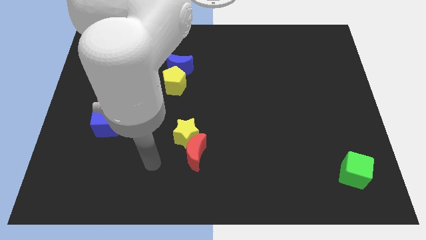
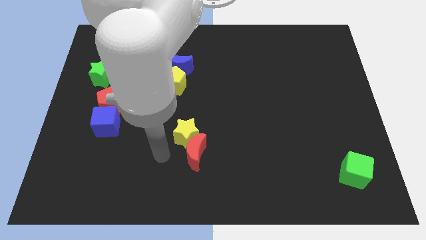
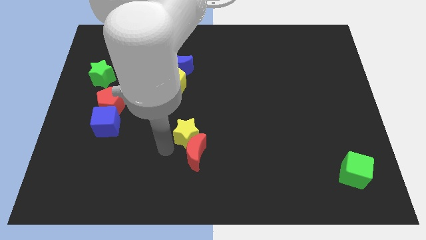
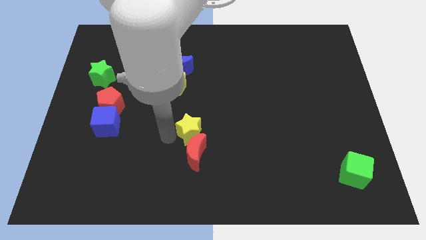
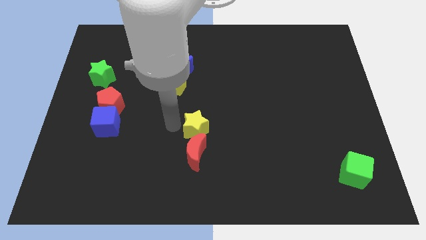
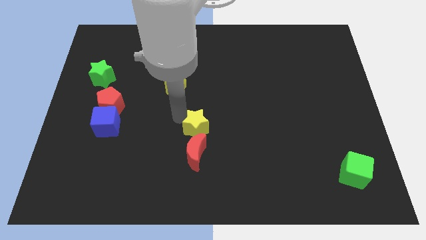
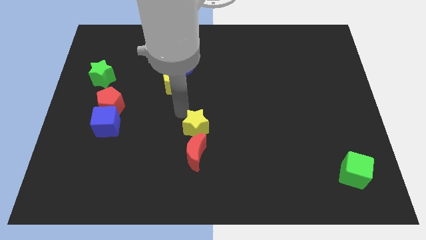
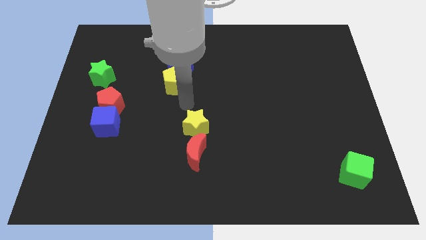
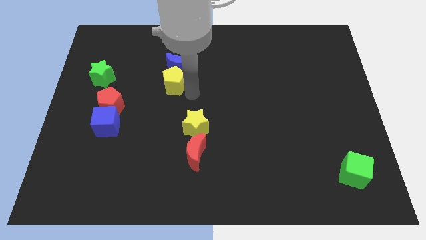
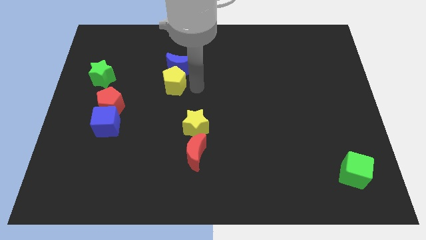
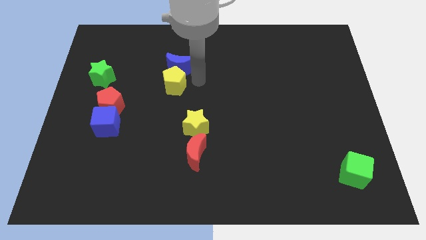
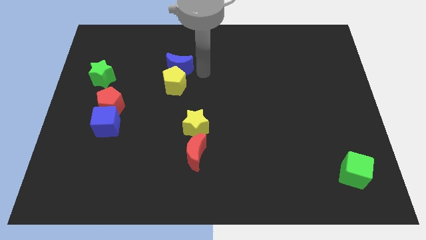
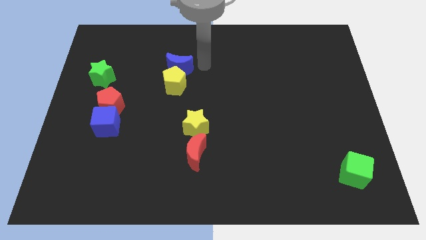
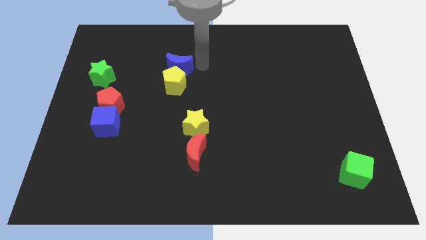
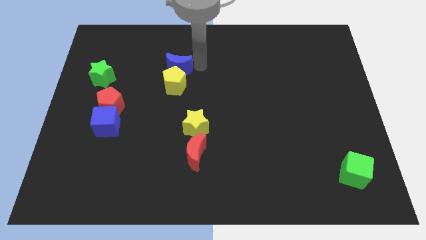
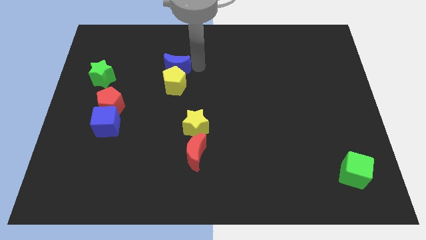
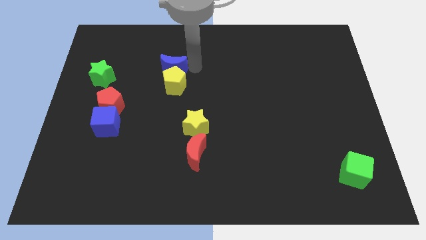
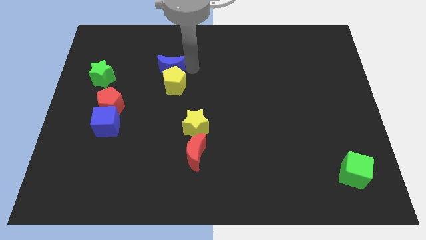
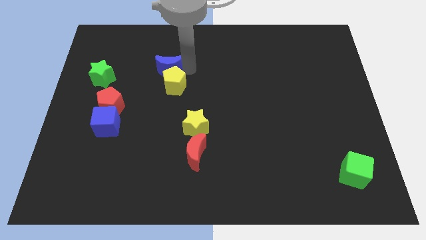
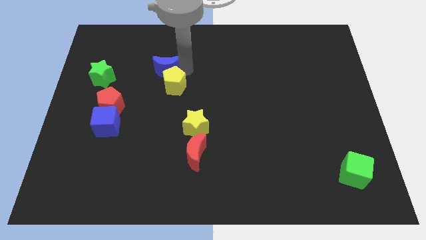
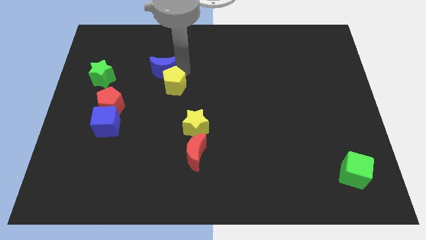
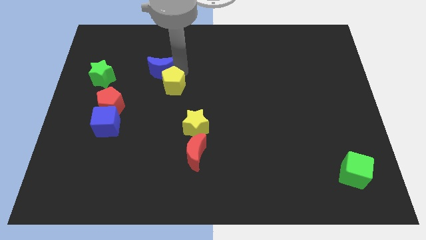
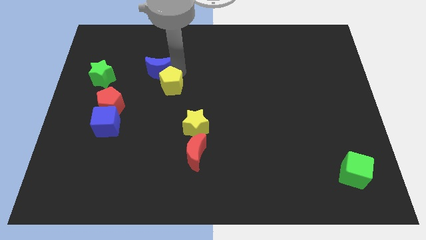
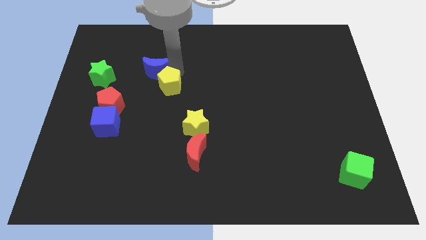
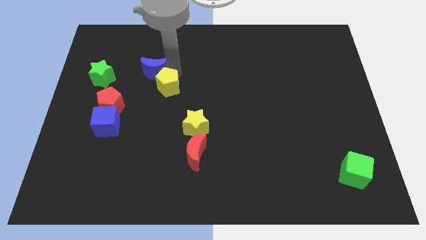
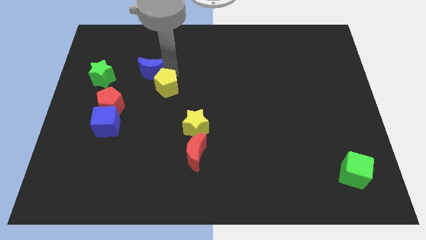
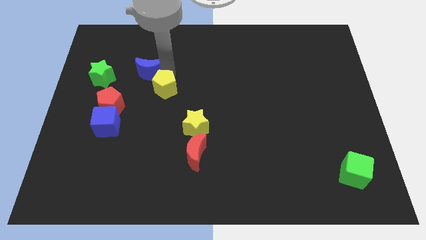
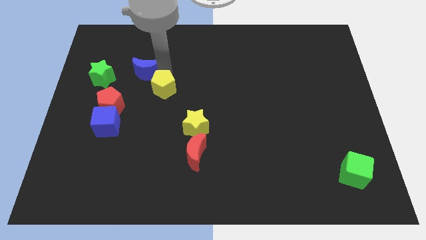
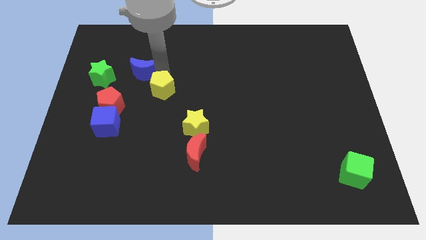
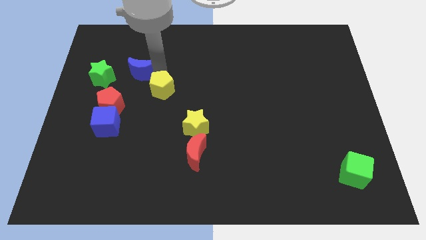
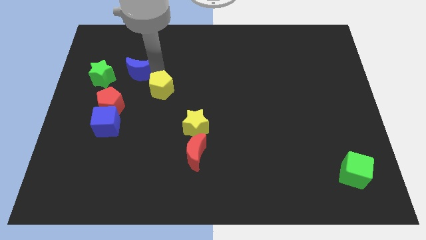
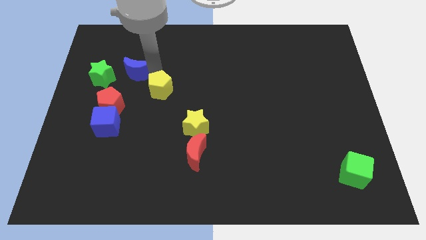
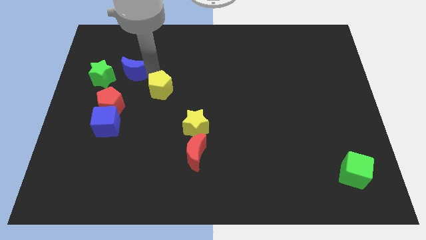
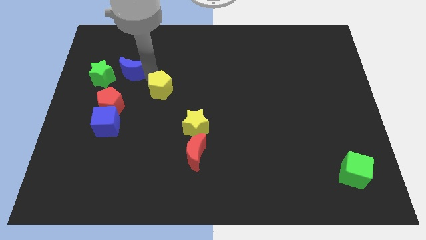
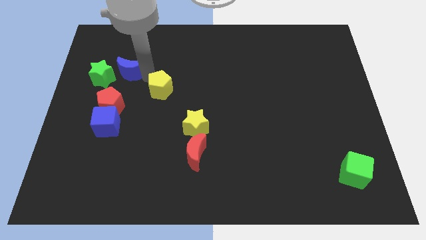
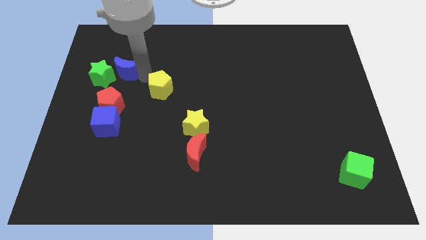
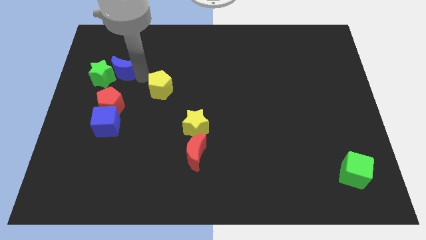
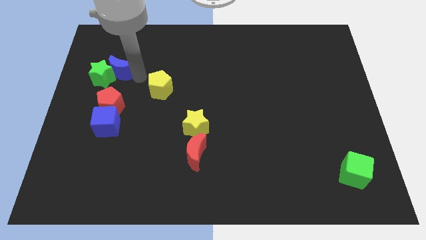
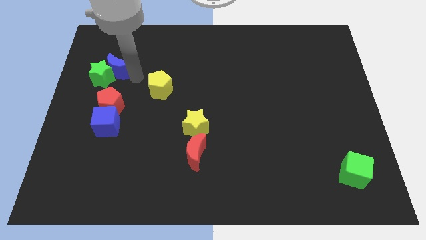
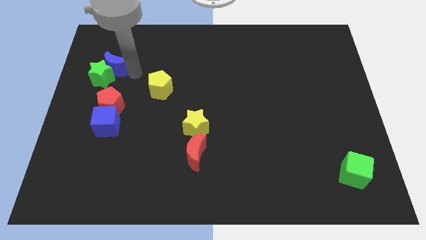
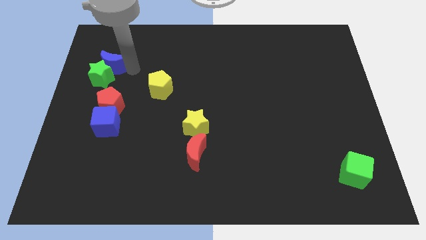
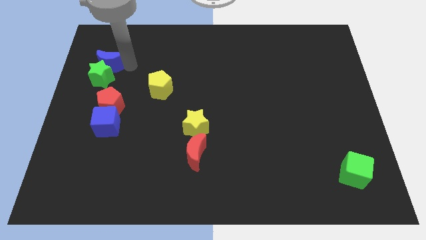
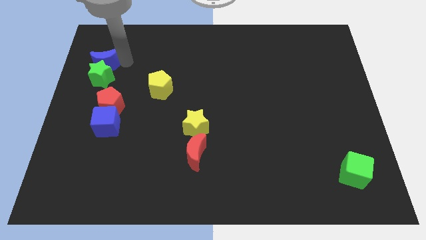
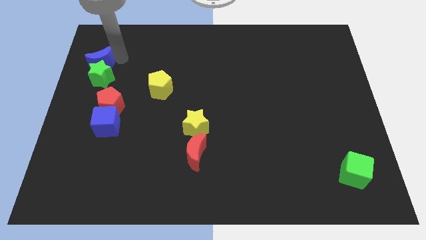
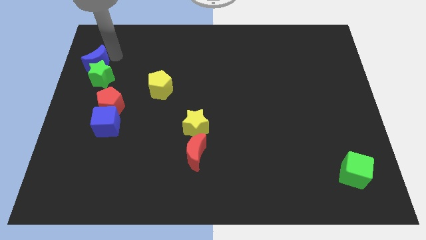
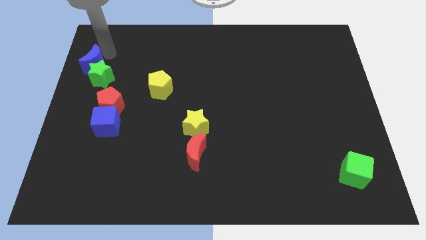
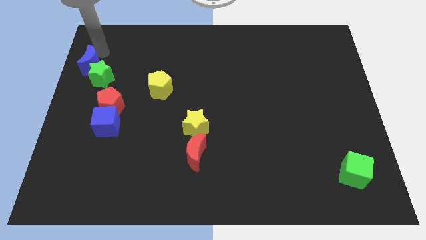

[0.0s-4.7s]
move the blue moon to the left side of the board

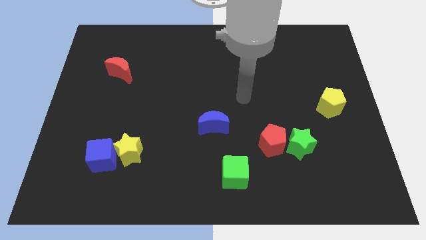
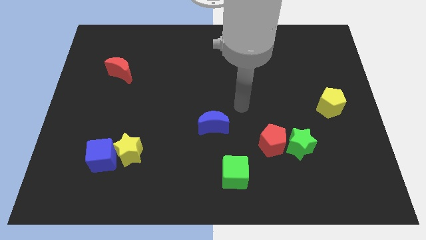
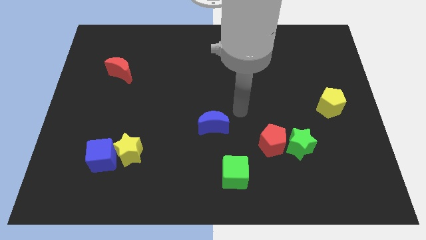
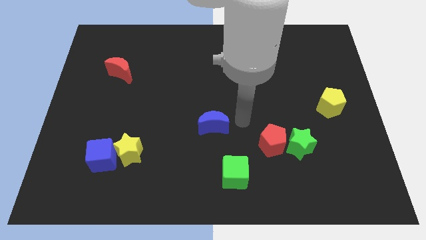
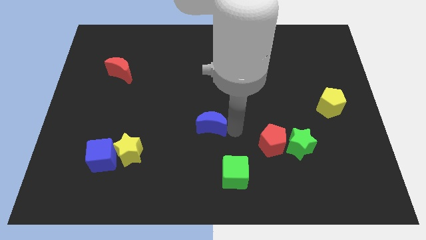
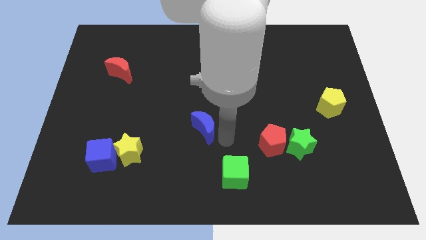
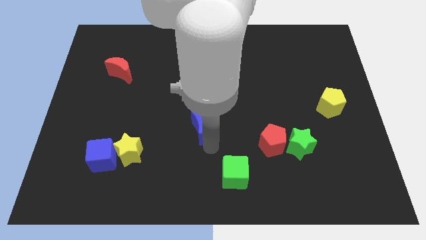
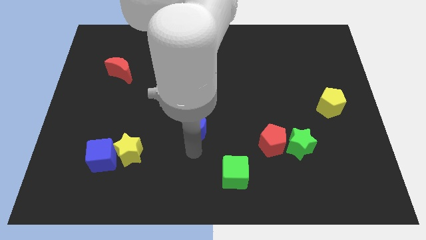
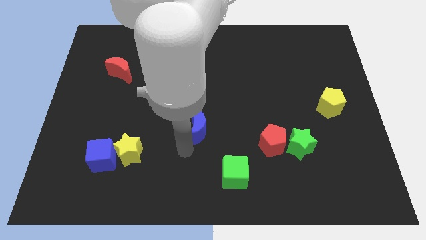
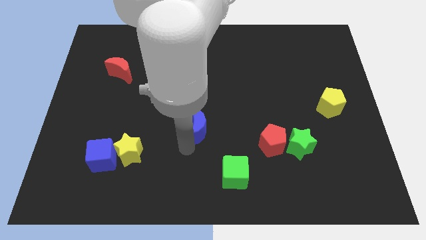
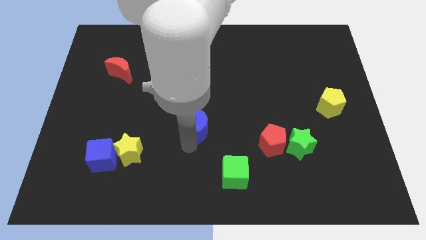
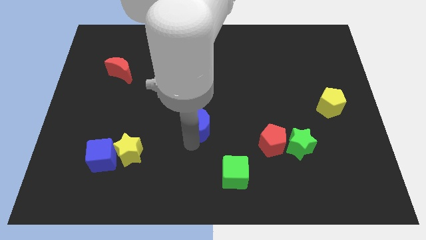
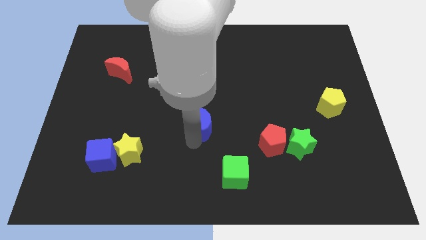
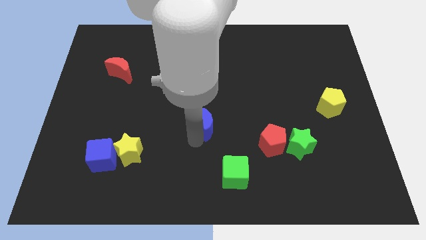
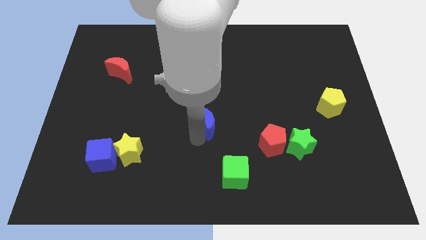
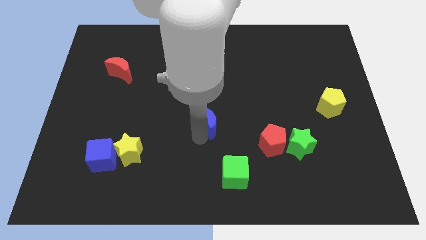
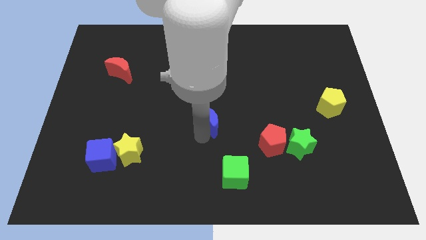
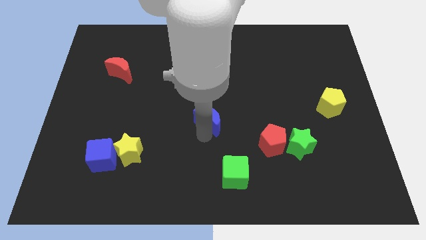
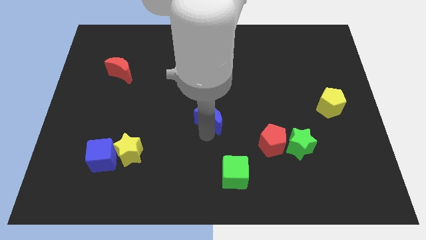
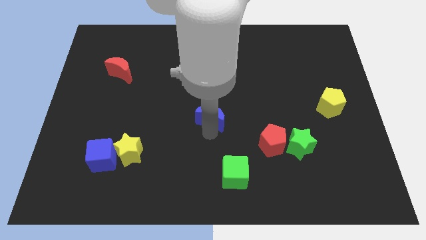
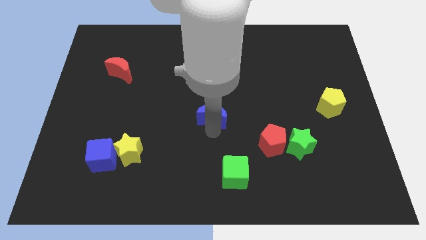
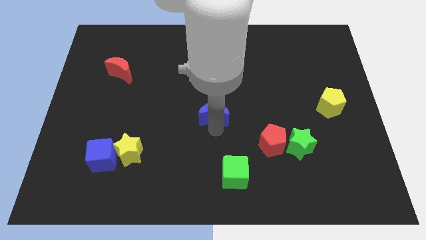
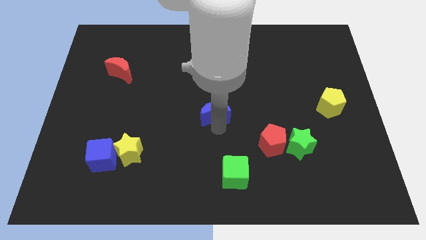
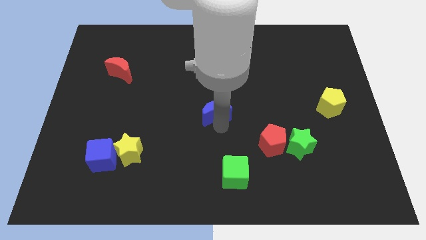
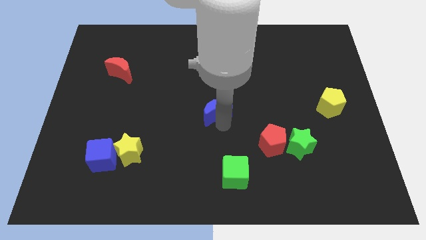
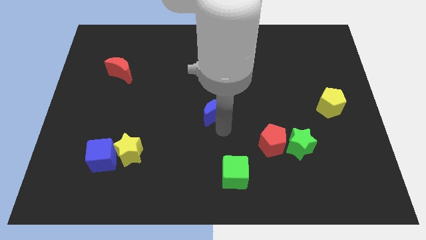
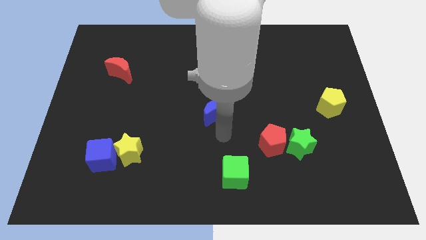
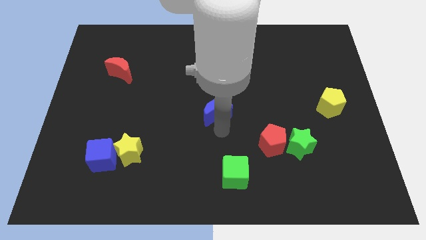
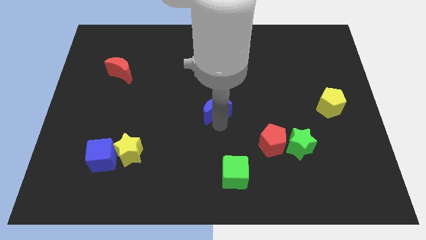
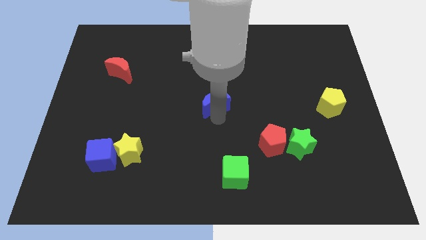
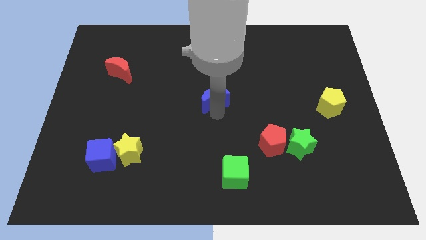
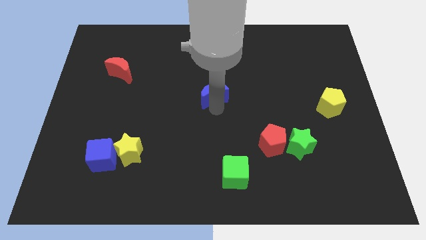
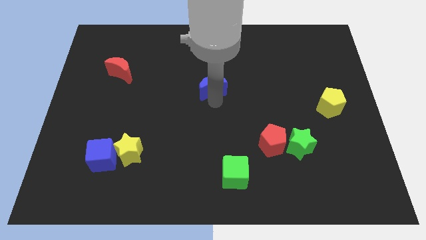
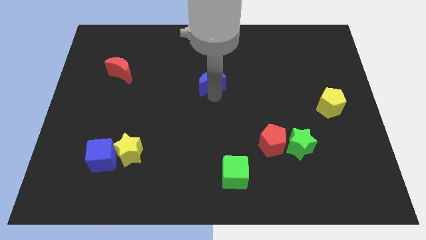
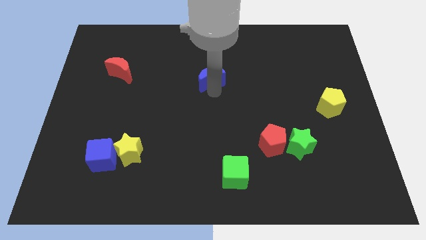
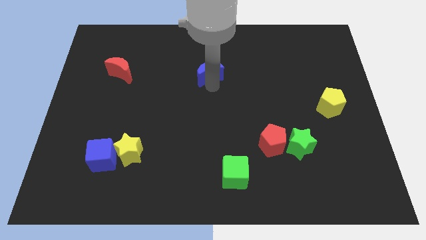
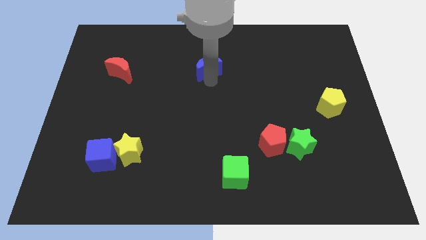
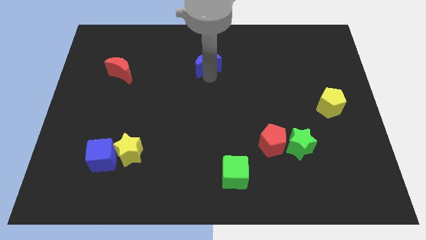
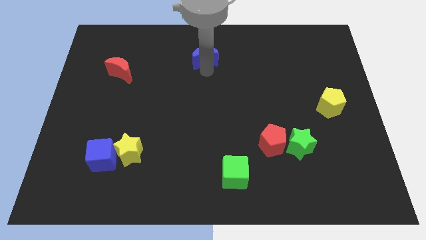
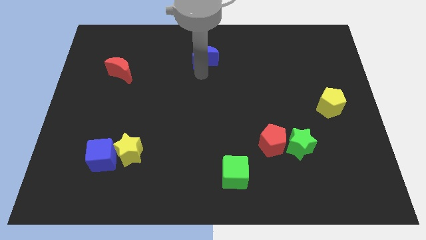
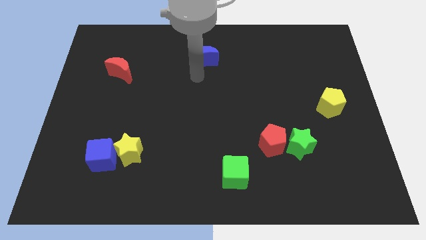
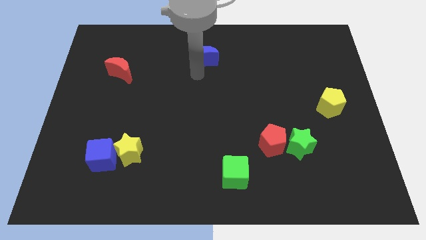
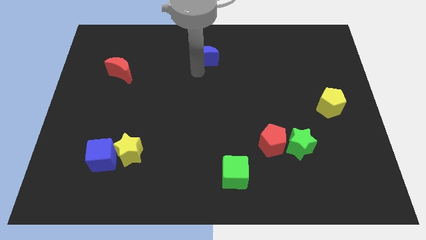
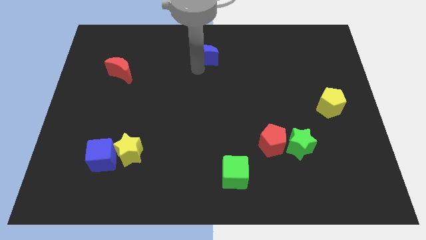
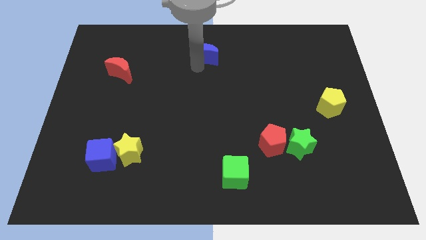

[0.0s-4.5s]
put the blue moon to the towards your base
